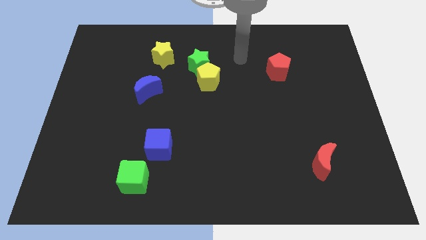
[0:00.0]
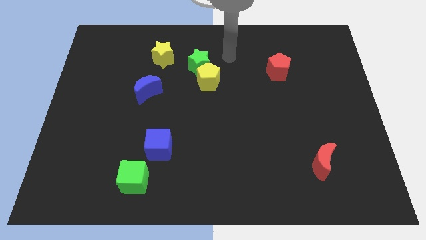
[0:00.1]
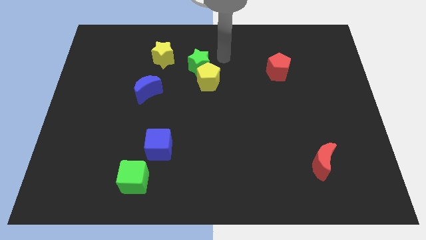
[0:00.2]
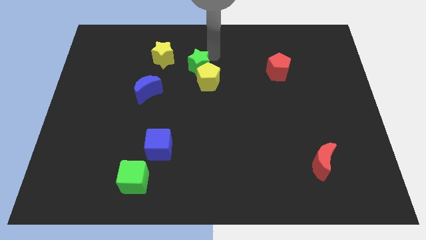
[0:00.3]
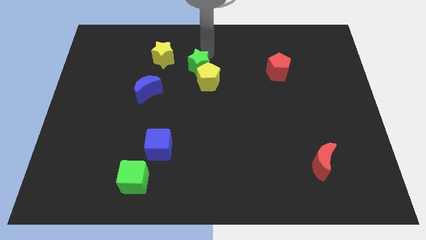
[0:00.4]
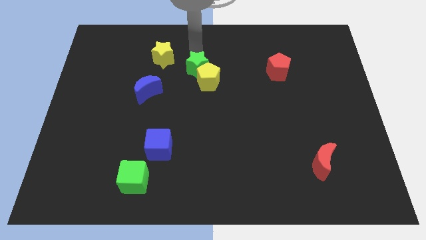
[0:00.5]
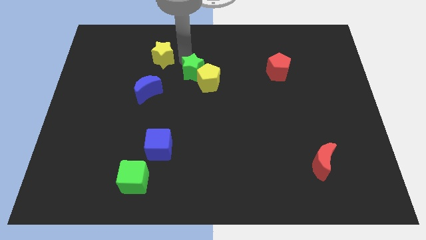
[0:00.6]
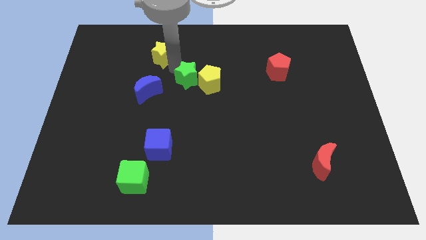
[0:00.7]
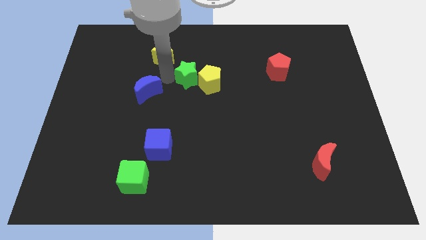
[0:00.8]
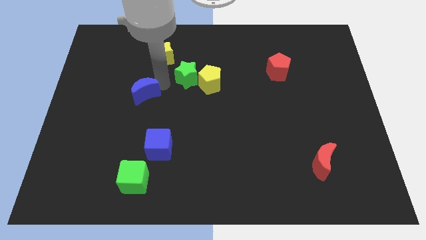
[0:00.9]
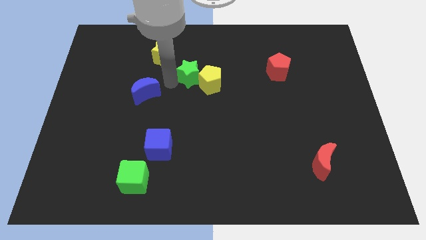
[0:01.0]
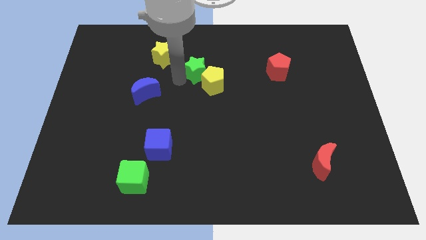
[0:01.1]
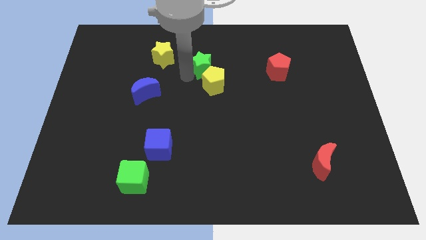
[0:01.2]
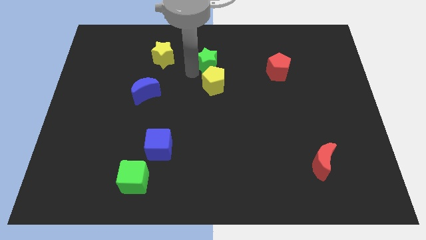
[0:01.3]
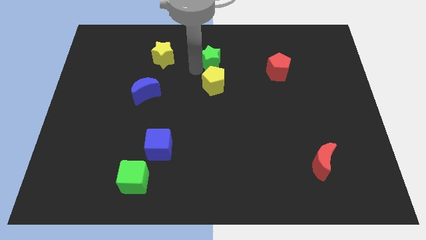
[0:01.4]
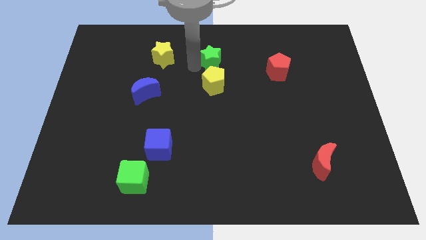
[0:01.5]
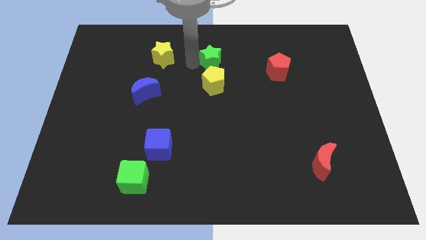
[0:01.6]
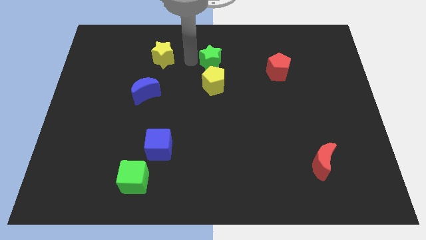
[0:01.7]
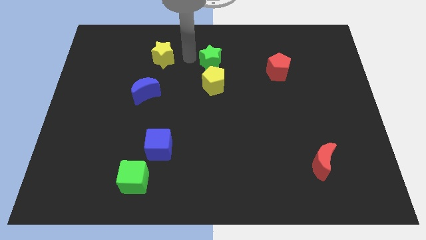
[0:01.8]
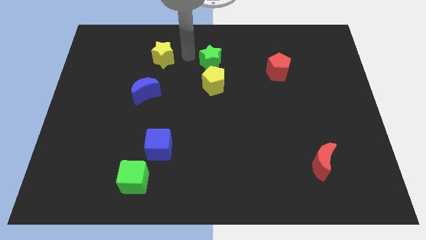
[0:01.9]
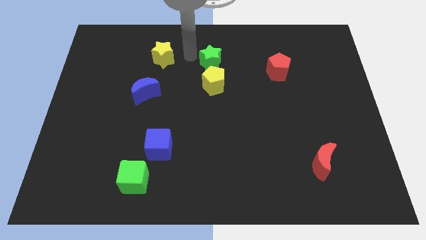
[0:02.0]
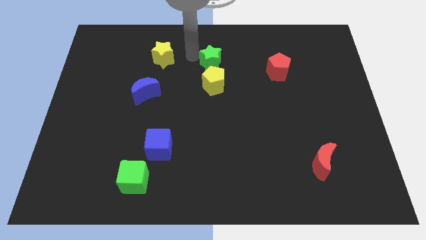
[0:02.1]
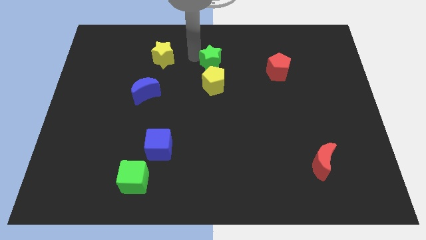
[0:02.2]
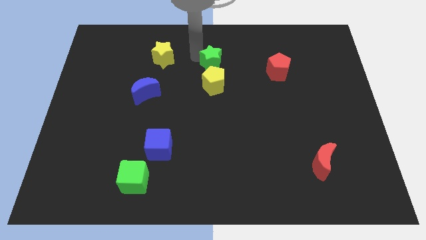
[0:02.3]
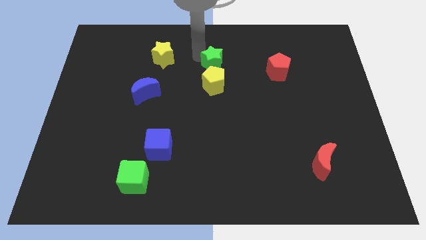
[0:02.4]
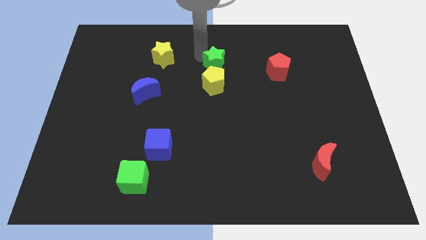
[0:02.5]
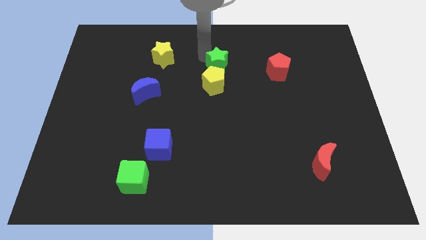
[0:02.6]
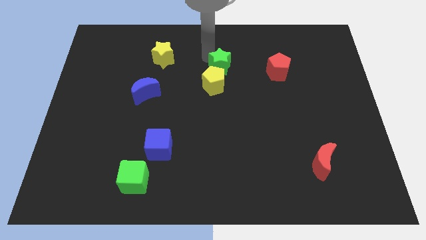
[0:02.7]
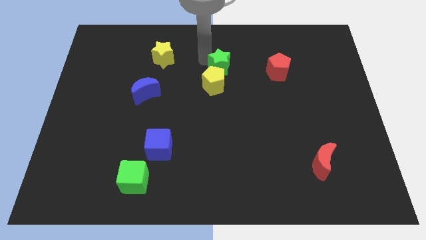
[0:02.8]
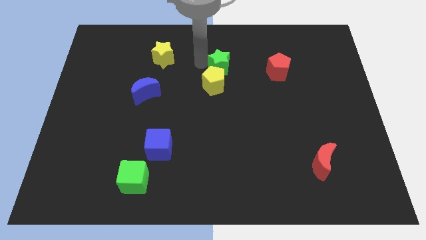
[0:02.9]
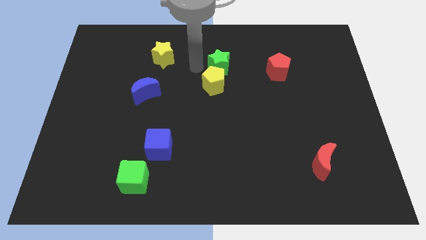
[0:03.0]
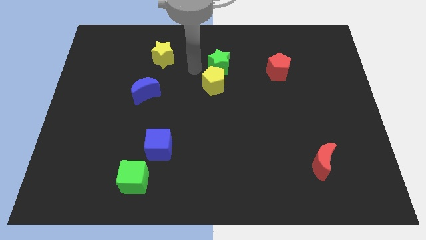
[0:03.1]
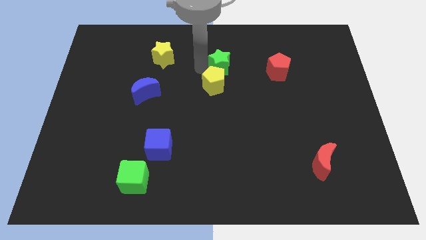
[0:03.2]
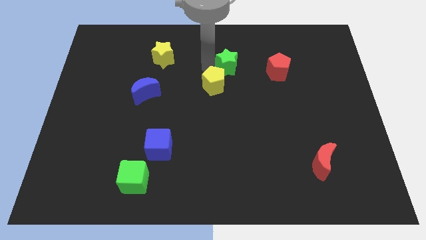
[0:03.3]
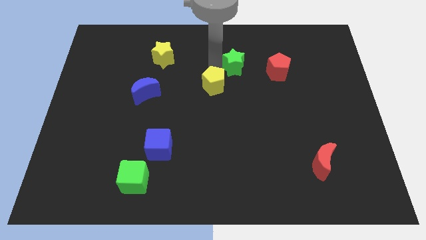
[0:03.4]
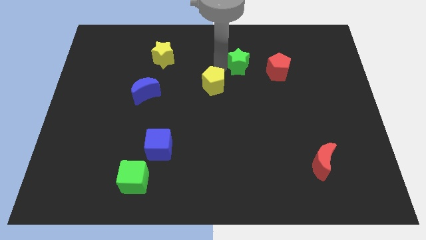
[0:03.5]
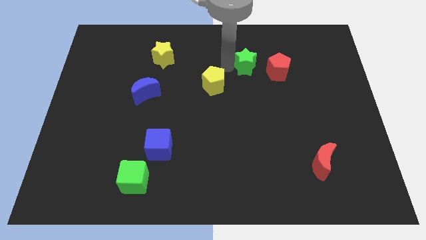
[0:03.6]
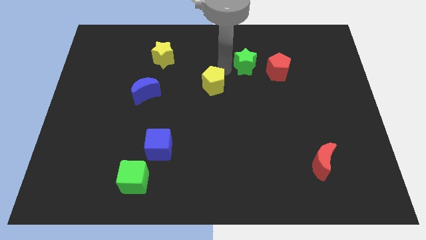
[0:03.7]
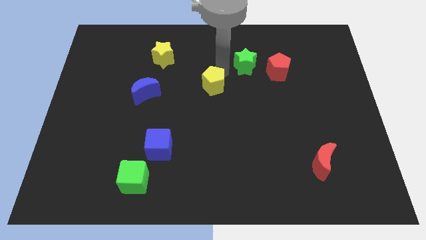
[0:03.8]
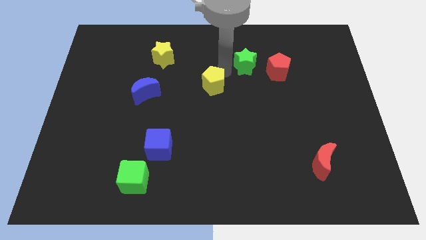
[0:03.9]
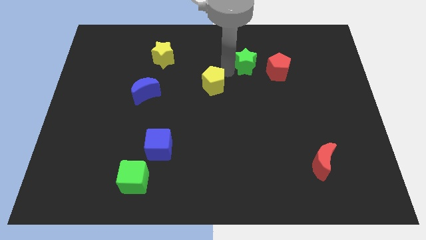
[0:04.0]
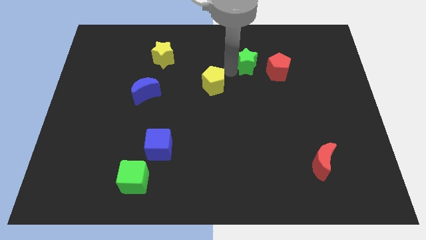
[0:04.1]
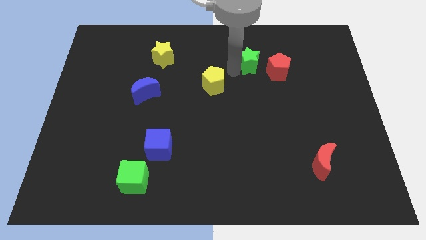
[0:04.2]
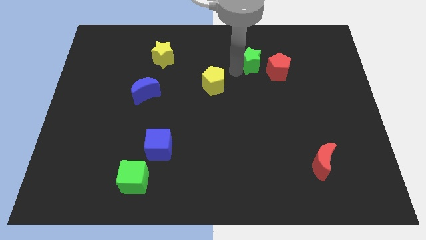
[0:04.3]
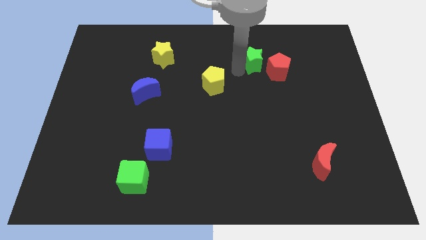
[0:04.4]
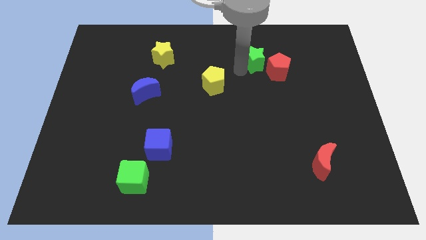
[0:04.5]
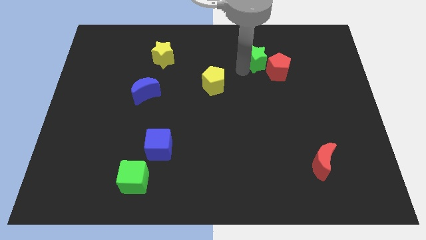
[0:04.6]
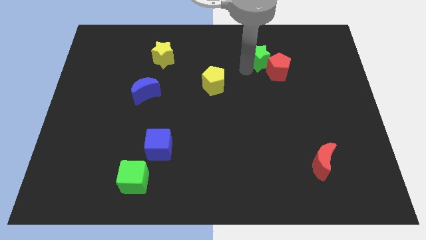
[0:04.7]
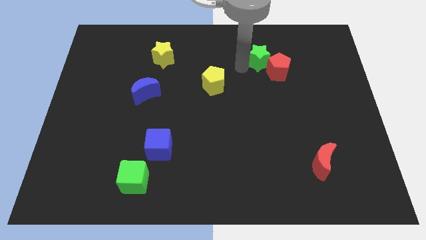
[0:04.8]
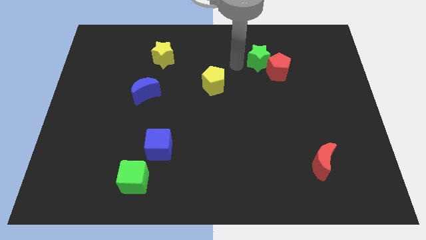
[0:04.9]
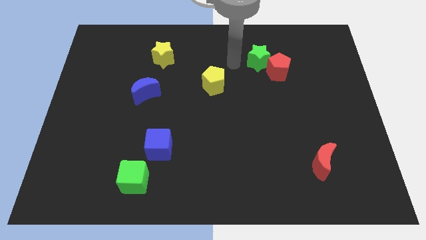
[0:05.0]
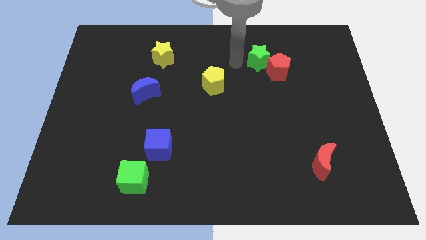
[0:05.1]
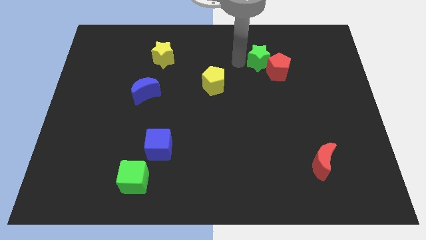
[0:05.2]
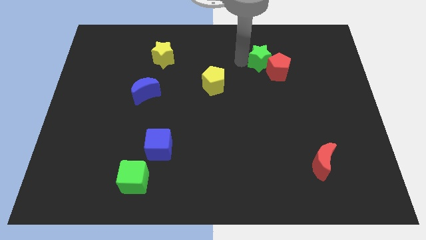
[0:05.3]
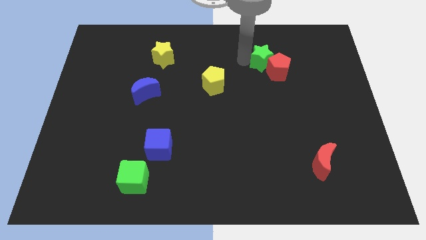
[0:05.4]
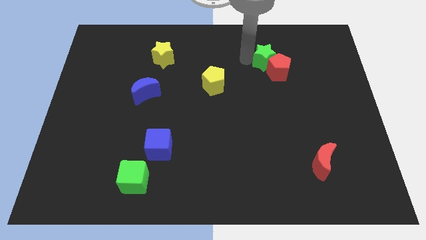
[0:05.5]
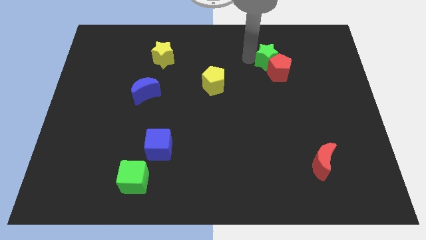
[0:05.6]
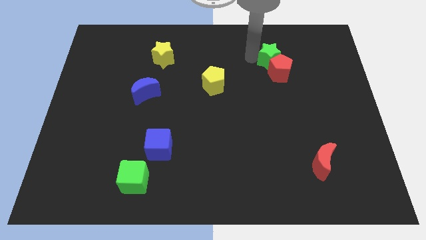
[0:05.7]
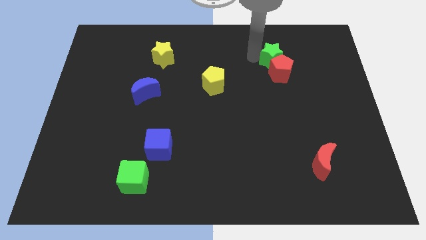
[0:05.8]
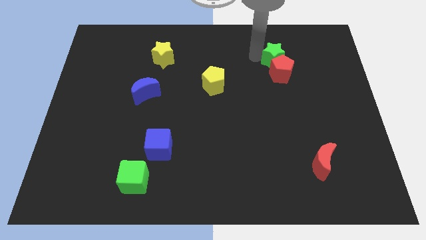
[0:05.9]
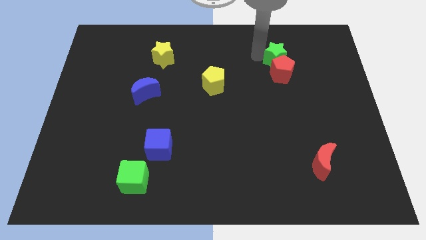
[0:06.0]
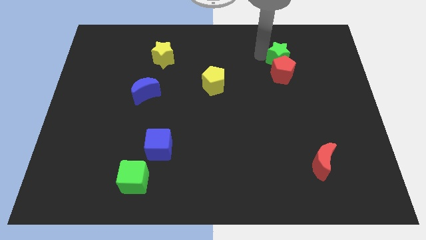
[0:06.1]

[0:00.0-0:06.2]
move the green star right

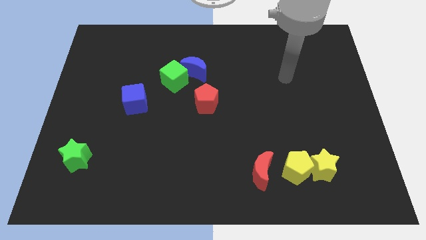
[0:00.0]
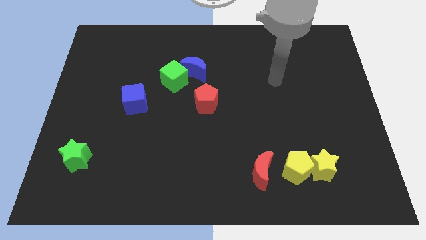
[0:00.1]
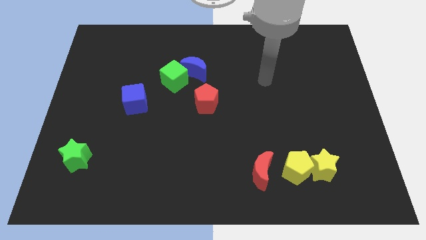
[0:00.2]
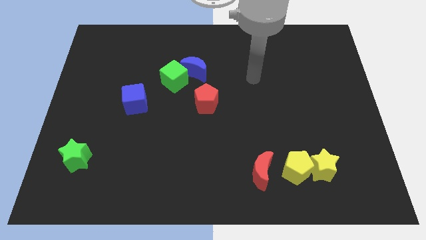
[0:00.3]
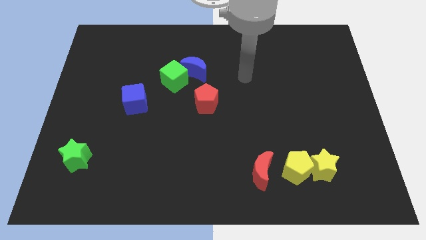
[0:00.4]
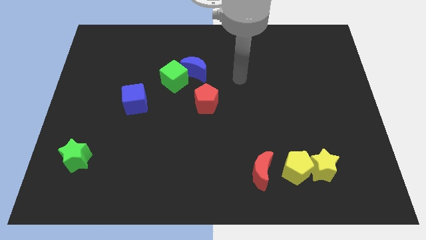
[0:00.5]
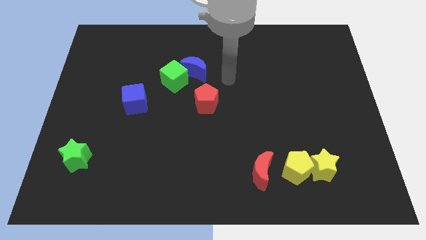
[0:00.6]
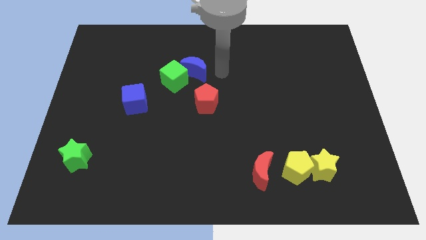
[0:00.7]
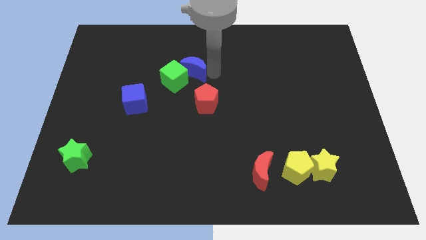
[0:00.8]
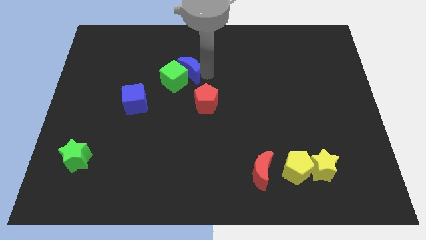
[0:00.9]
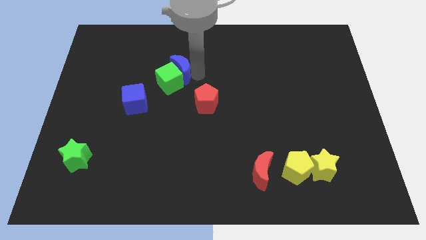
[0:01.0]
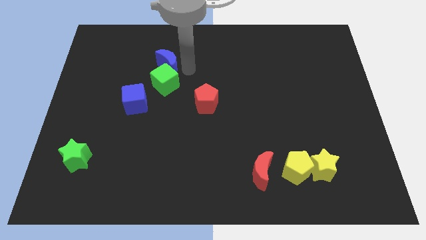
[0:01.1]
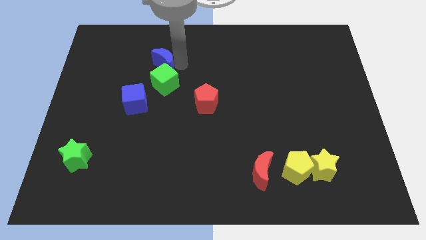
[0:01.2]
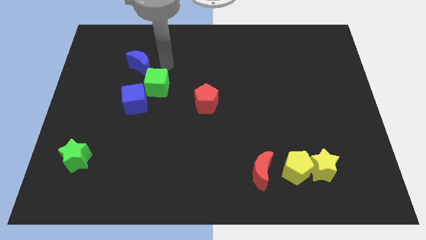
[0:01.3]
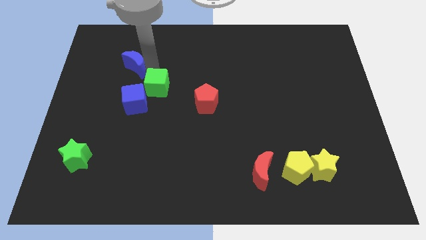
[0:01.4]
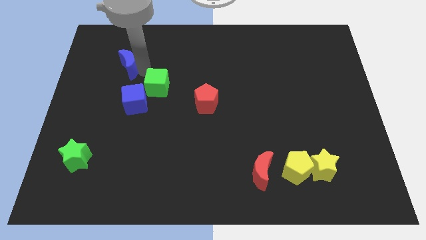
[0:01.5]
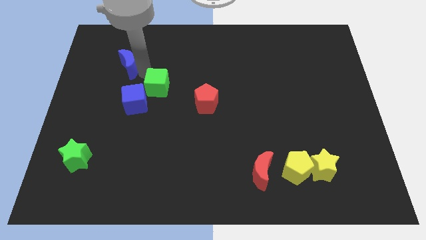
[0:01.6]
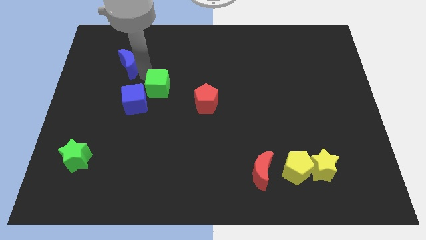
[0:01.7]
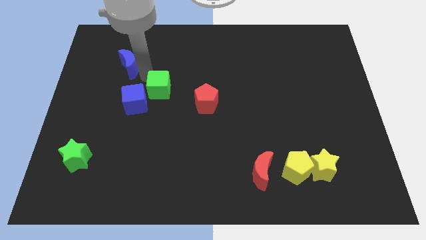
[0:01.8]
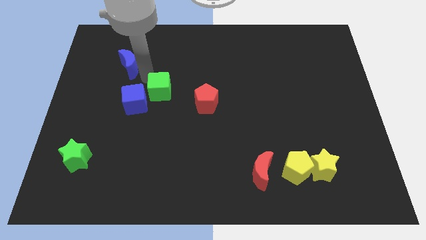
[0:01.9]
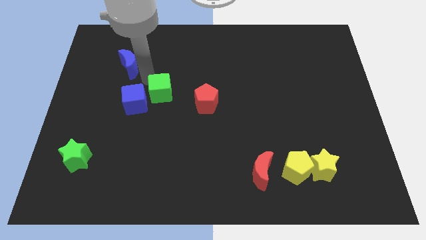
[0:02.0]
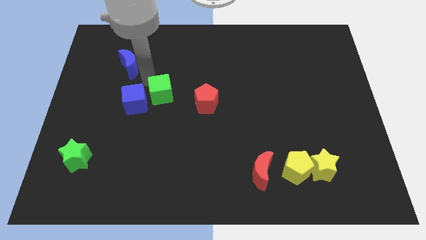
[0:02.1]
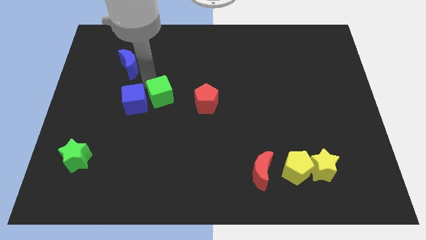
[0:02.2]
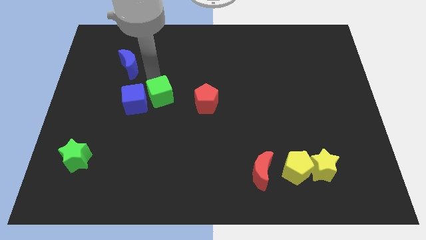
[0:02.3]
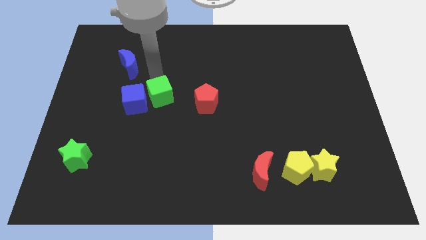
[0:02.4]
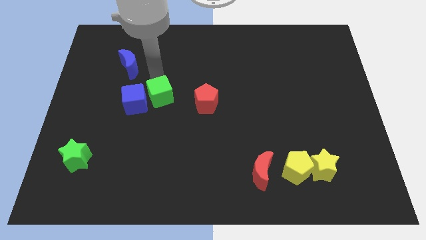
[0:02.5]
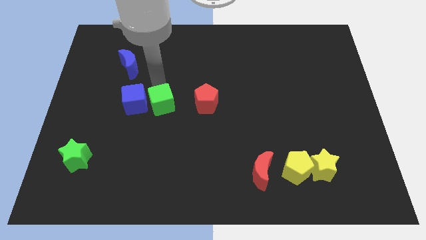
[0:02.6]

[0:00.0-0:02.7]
slide the green cube slightly down
